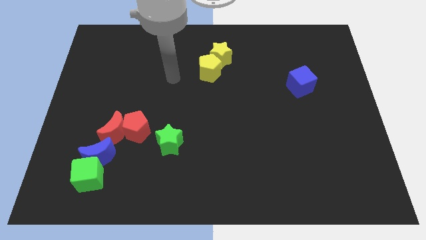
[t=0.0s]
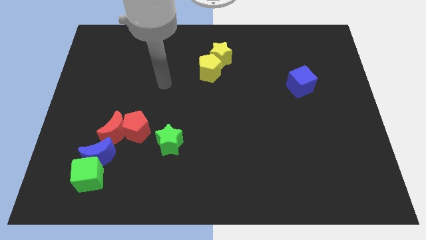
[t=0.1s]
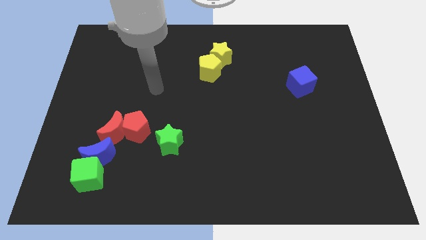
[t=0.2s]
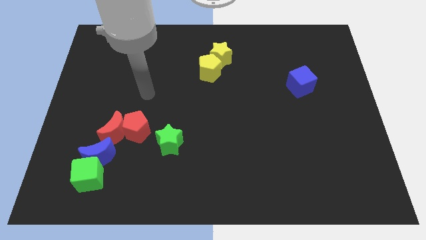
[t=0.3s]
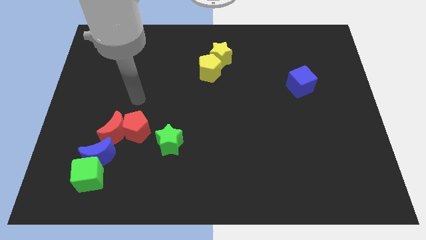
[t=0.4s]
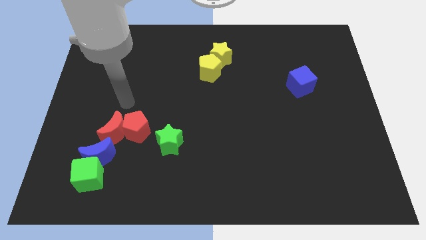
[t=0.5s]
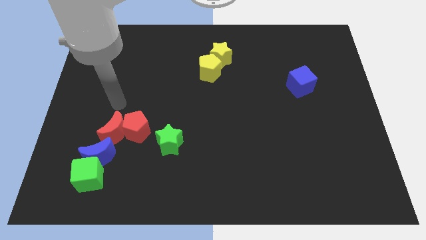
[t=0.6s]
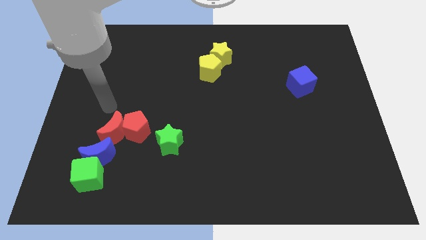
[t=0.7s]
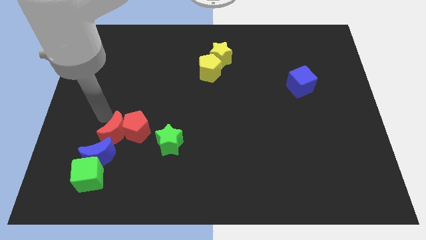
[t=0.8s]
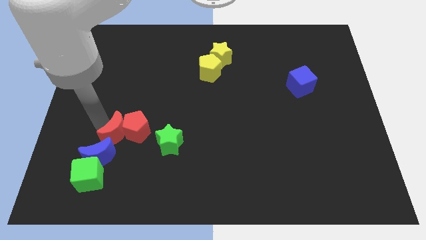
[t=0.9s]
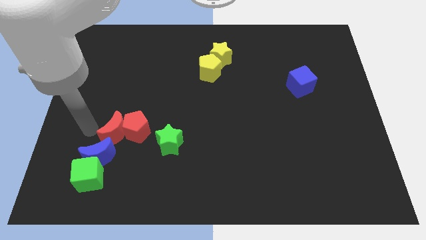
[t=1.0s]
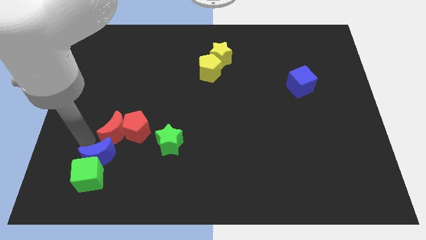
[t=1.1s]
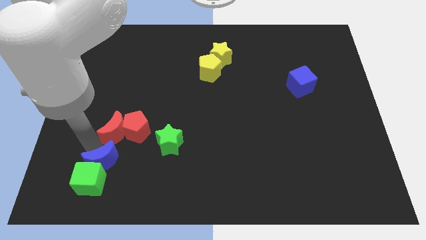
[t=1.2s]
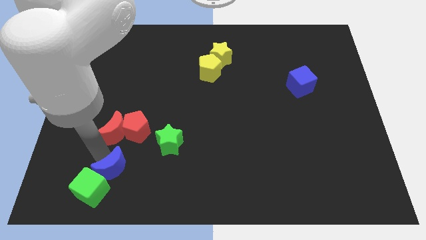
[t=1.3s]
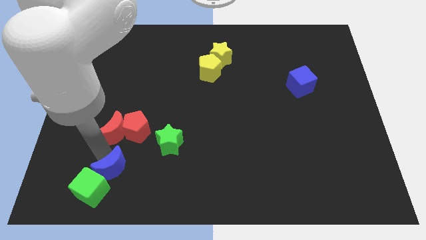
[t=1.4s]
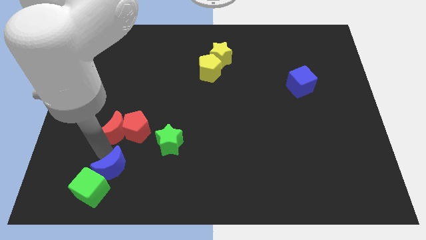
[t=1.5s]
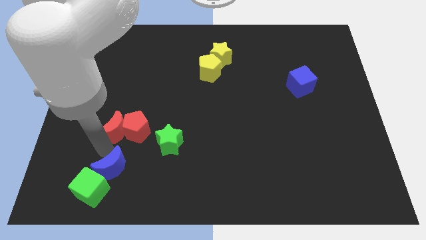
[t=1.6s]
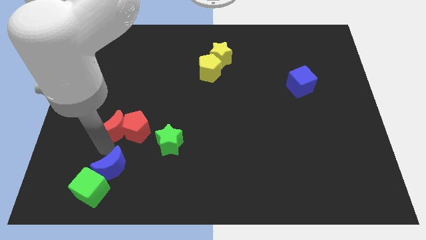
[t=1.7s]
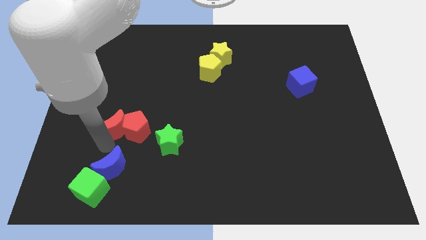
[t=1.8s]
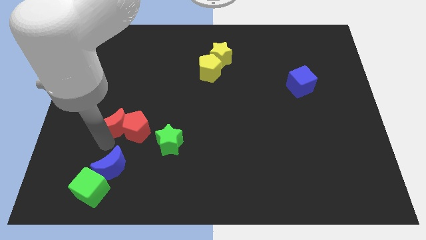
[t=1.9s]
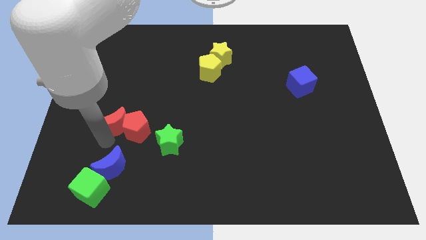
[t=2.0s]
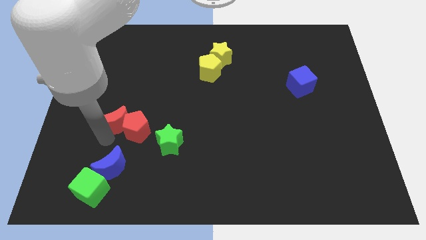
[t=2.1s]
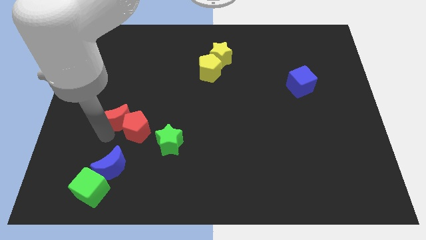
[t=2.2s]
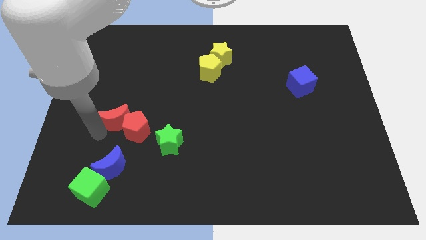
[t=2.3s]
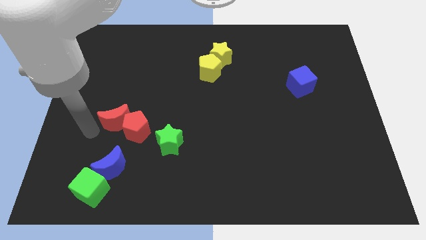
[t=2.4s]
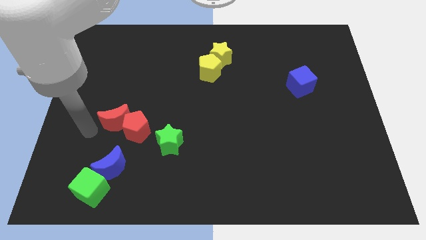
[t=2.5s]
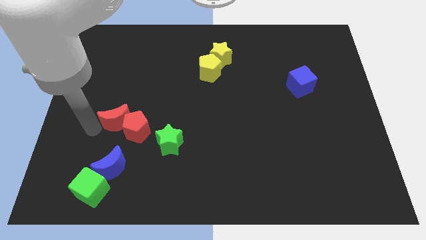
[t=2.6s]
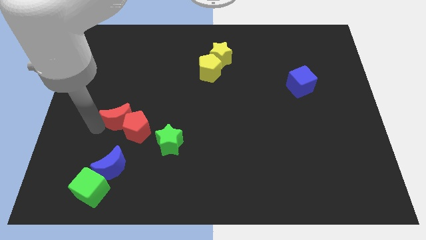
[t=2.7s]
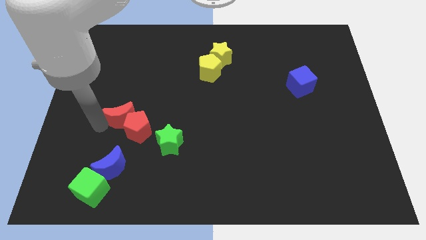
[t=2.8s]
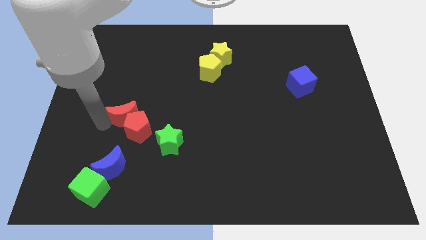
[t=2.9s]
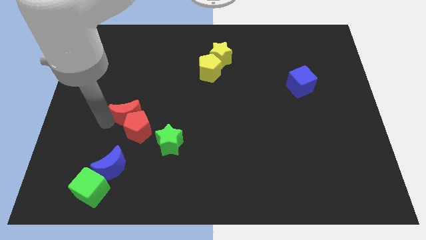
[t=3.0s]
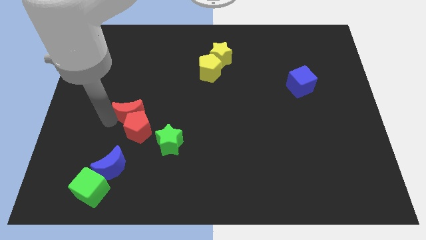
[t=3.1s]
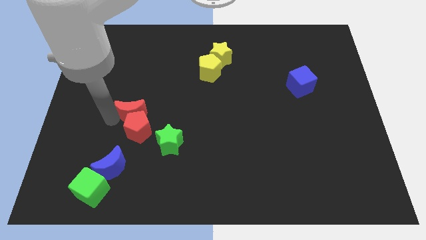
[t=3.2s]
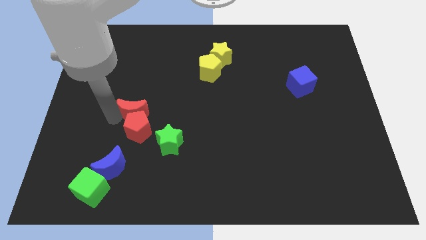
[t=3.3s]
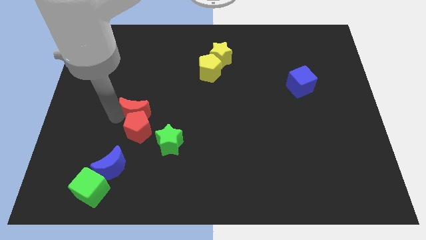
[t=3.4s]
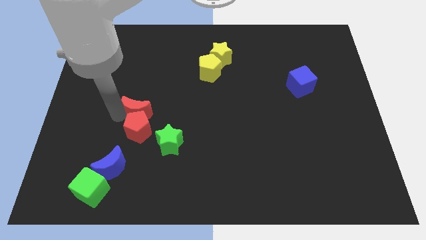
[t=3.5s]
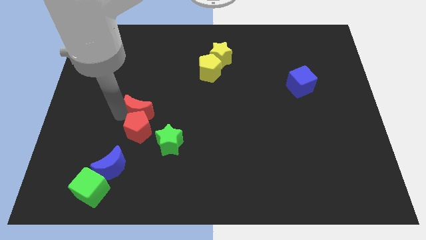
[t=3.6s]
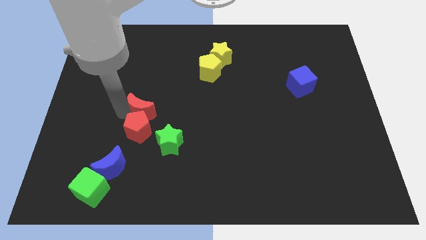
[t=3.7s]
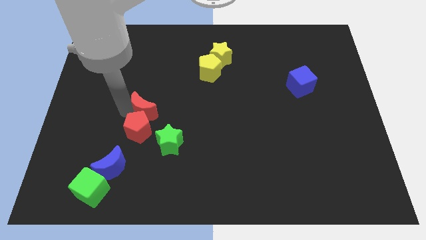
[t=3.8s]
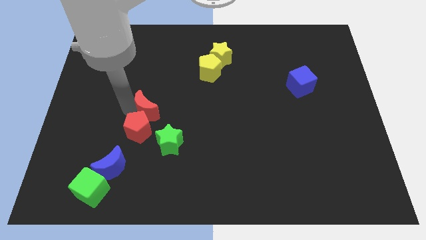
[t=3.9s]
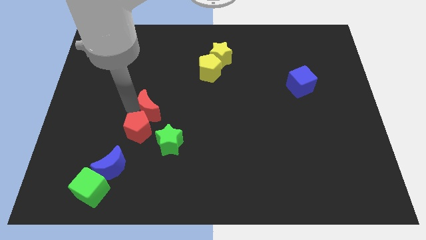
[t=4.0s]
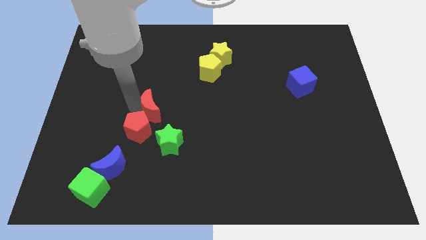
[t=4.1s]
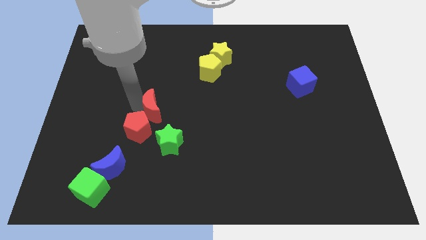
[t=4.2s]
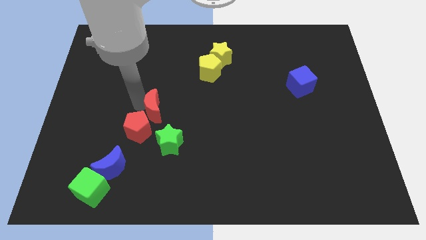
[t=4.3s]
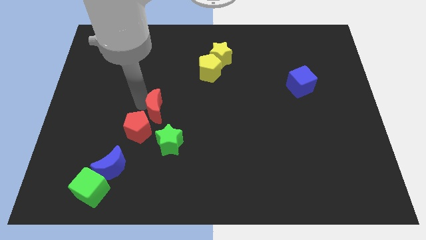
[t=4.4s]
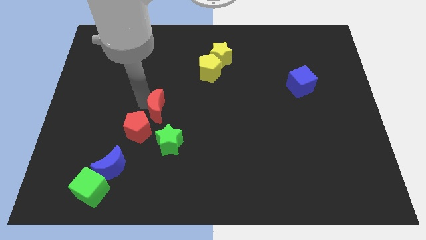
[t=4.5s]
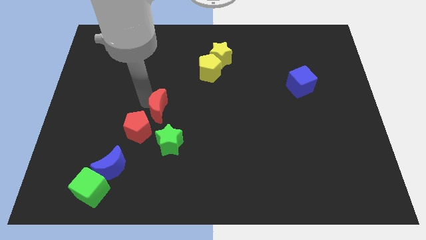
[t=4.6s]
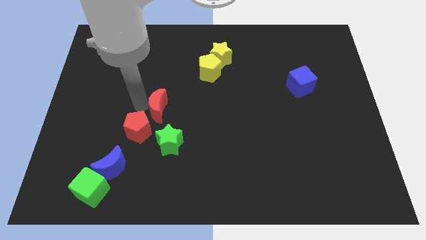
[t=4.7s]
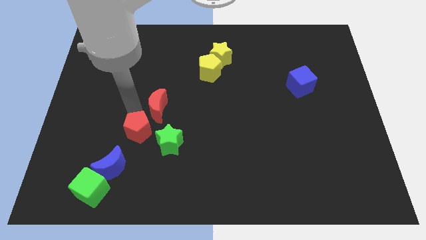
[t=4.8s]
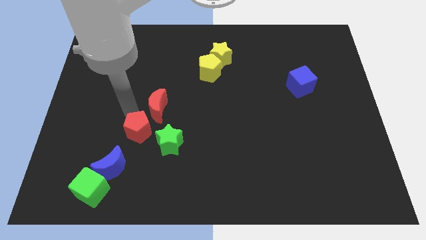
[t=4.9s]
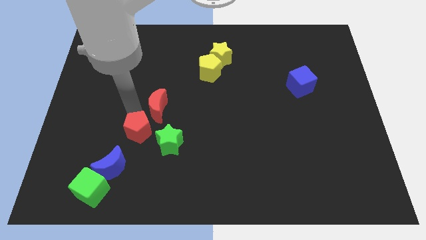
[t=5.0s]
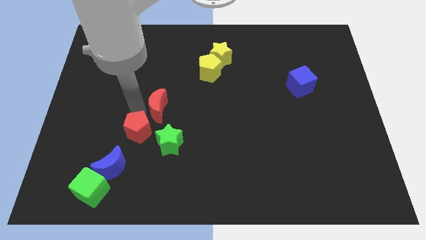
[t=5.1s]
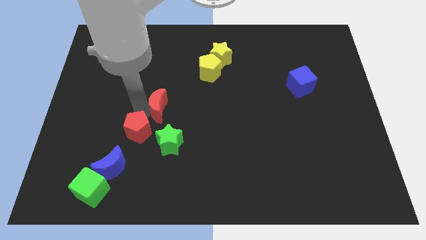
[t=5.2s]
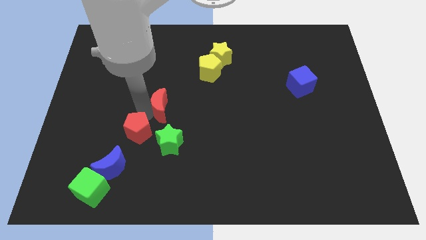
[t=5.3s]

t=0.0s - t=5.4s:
move the red moon to the middle
